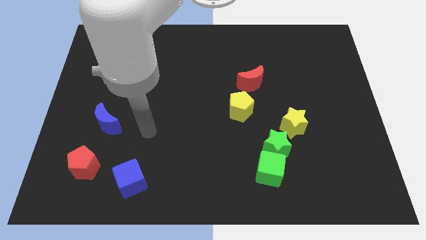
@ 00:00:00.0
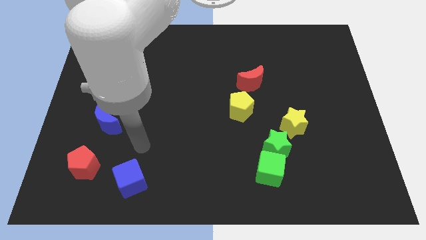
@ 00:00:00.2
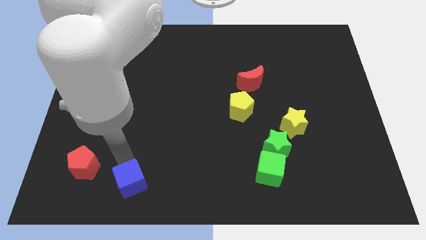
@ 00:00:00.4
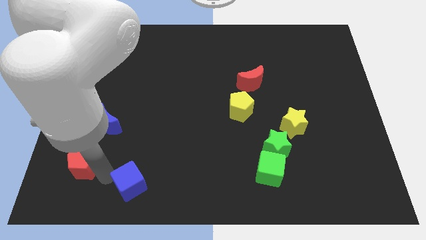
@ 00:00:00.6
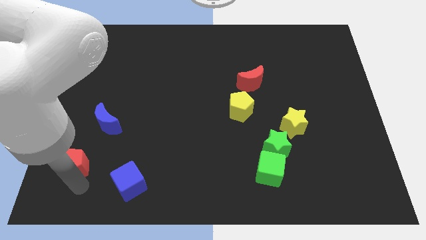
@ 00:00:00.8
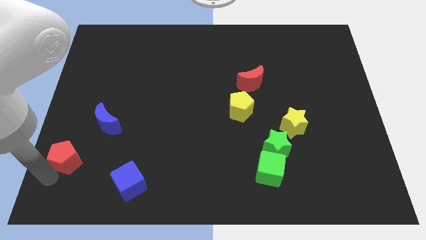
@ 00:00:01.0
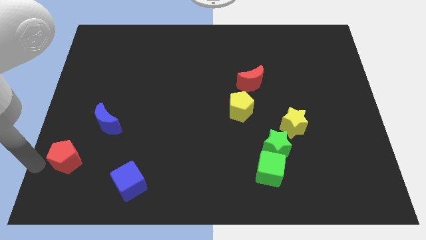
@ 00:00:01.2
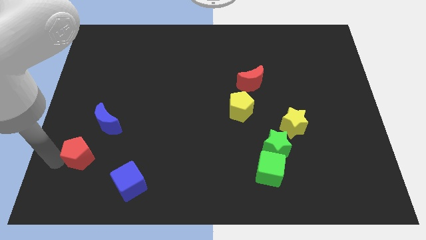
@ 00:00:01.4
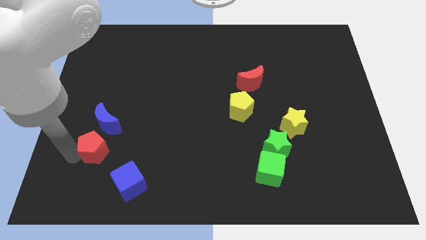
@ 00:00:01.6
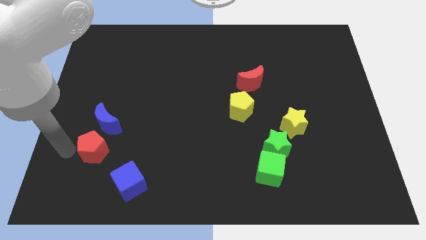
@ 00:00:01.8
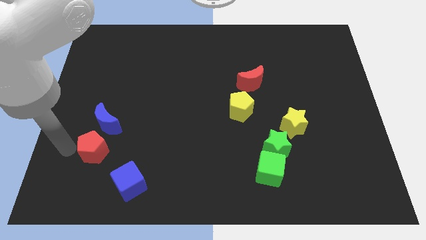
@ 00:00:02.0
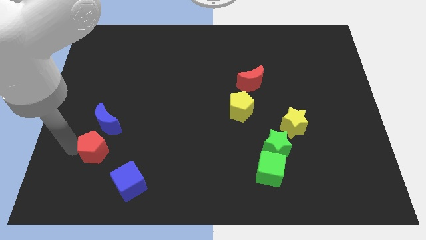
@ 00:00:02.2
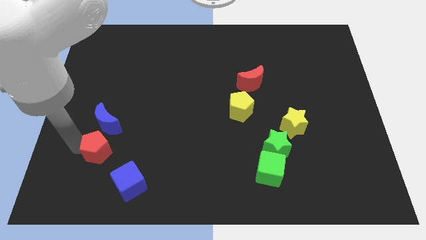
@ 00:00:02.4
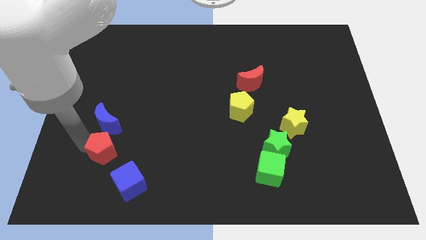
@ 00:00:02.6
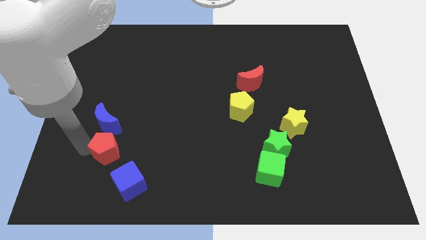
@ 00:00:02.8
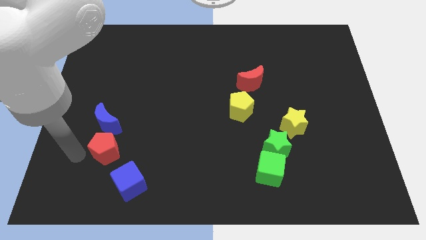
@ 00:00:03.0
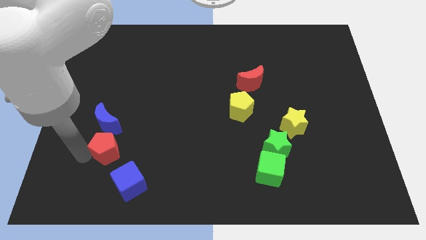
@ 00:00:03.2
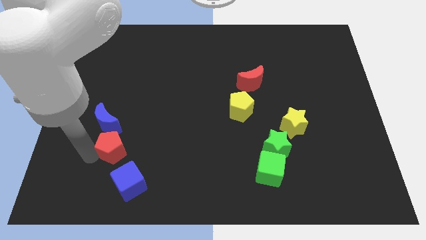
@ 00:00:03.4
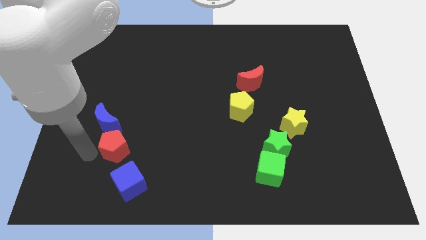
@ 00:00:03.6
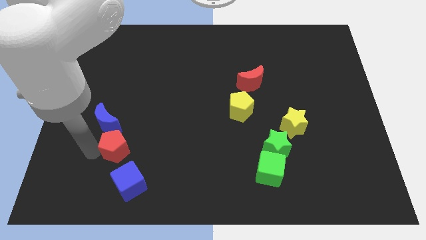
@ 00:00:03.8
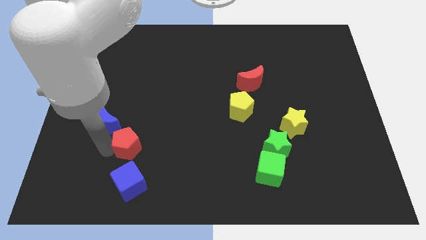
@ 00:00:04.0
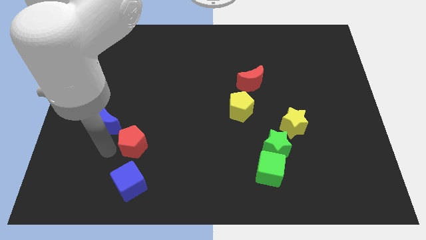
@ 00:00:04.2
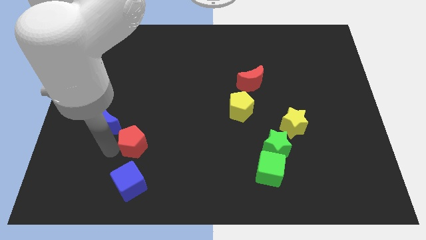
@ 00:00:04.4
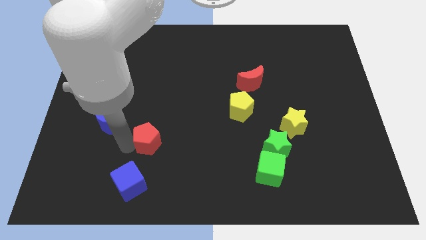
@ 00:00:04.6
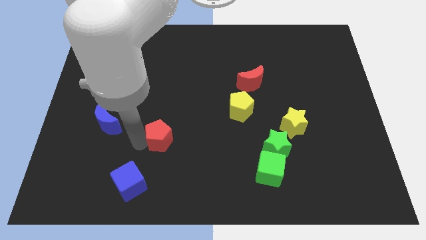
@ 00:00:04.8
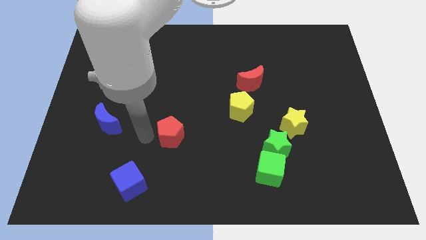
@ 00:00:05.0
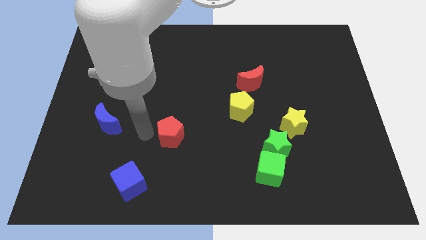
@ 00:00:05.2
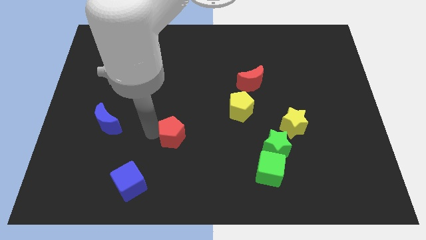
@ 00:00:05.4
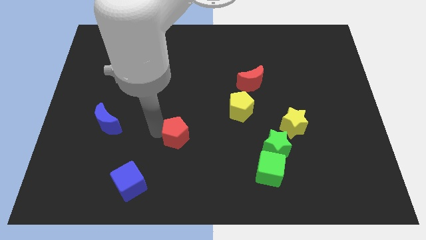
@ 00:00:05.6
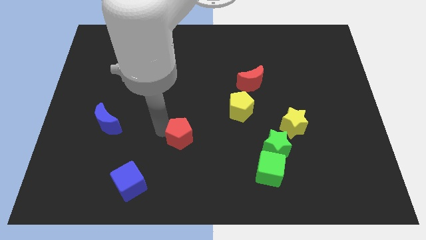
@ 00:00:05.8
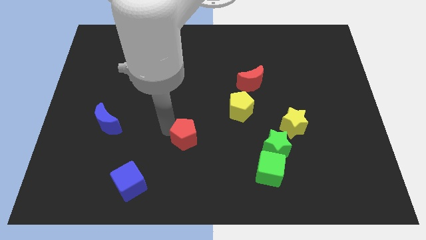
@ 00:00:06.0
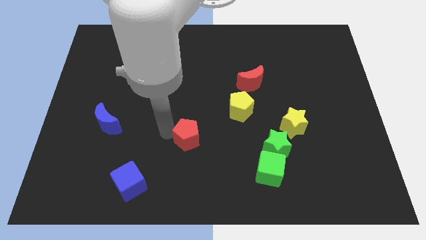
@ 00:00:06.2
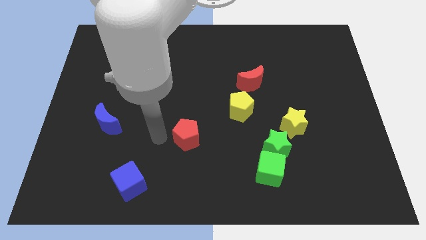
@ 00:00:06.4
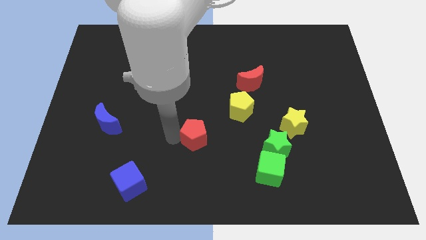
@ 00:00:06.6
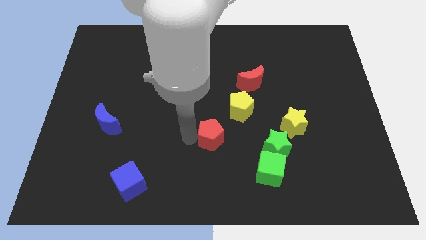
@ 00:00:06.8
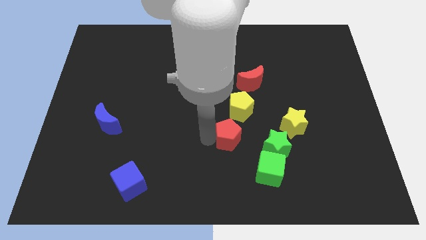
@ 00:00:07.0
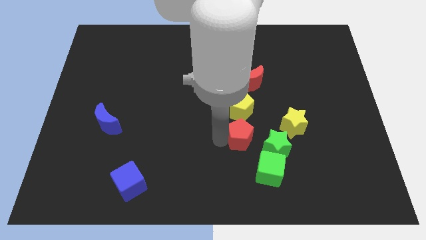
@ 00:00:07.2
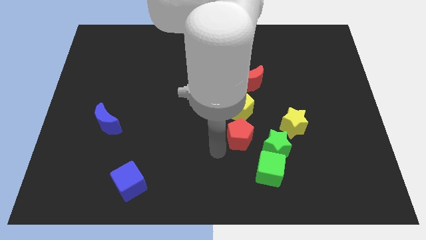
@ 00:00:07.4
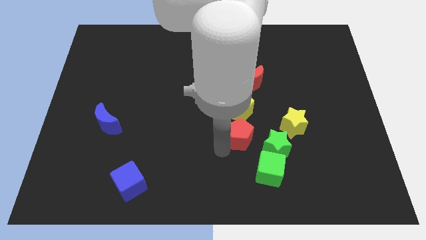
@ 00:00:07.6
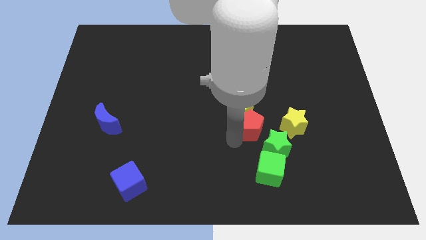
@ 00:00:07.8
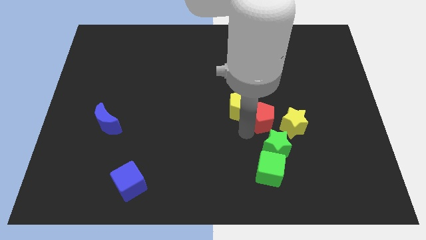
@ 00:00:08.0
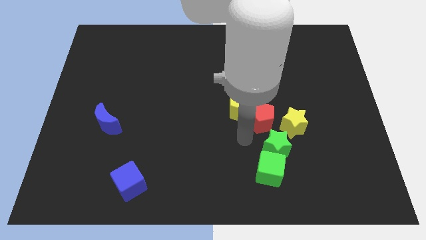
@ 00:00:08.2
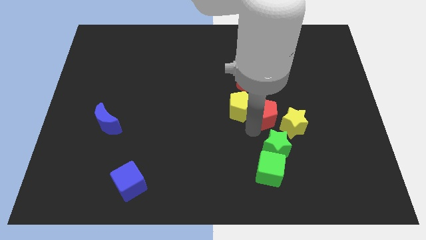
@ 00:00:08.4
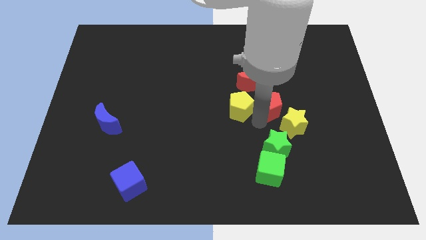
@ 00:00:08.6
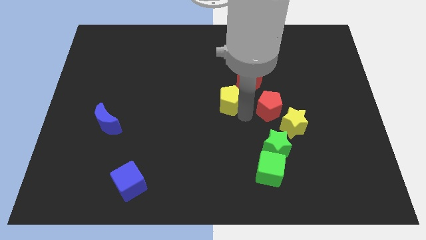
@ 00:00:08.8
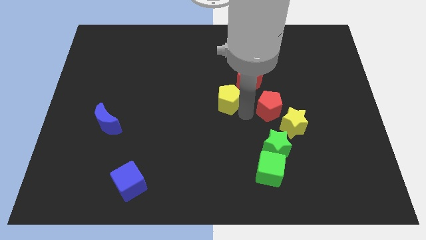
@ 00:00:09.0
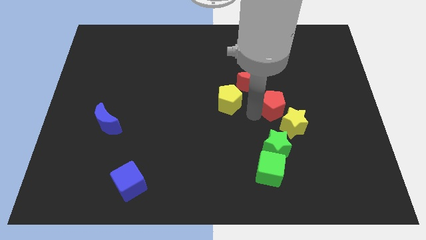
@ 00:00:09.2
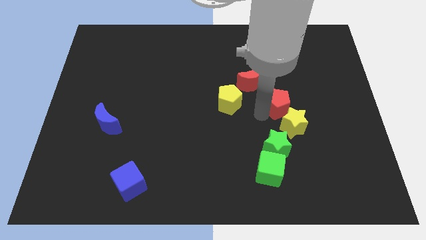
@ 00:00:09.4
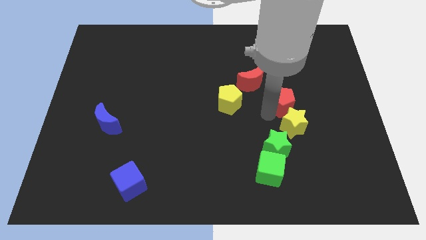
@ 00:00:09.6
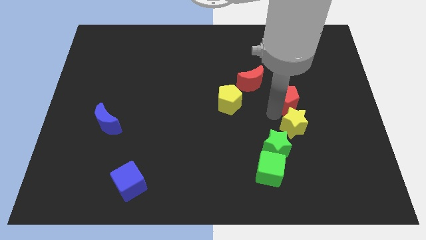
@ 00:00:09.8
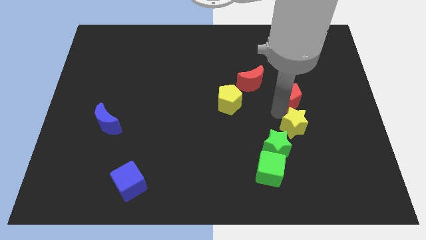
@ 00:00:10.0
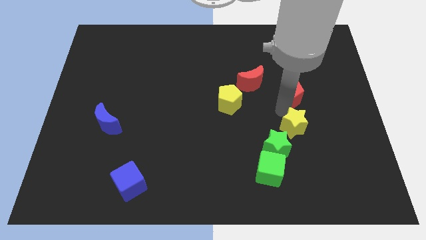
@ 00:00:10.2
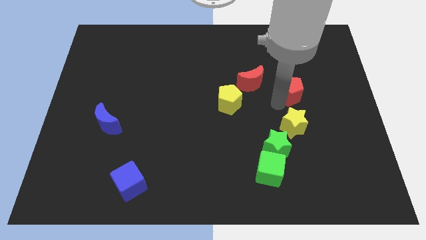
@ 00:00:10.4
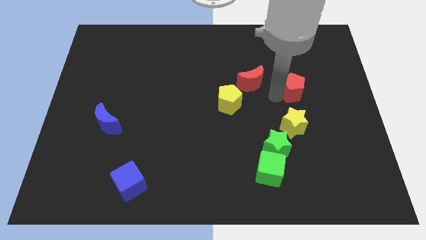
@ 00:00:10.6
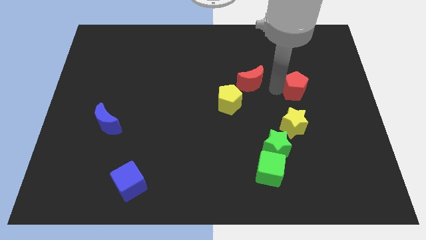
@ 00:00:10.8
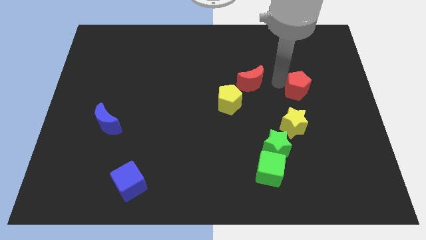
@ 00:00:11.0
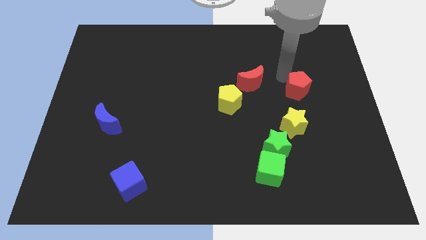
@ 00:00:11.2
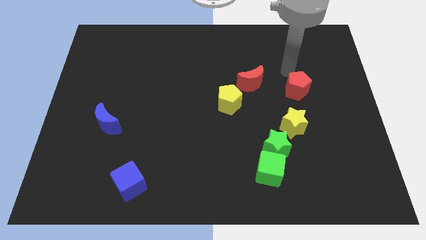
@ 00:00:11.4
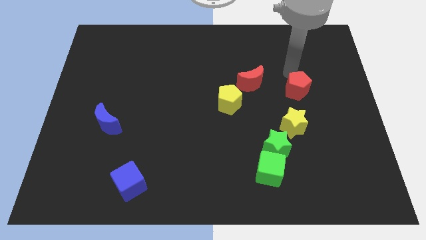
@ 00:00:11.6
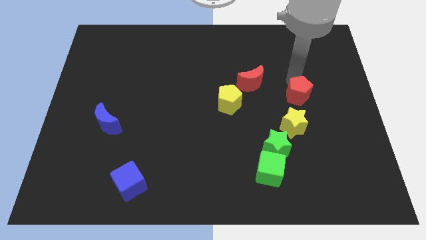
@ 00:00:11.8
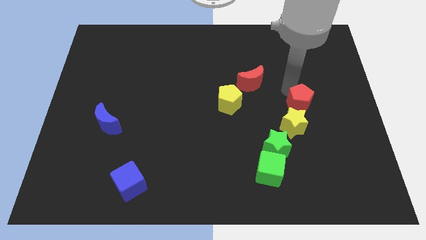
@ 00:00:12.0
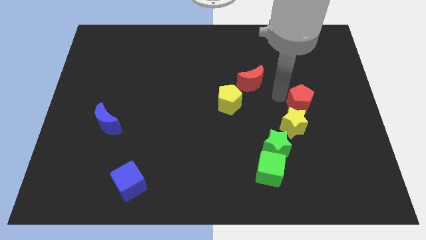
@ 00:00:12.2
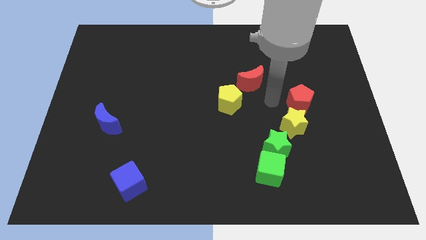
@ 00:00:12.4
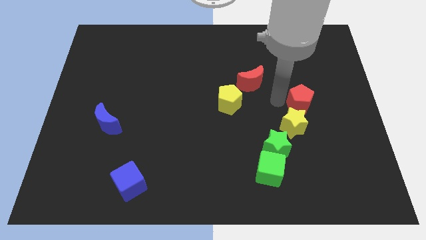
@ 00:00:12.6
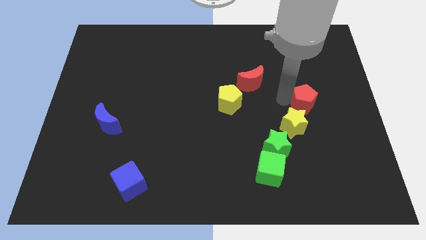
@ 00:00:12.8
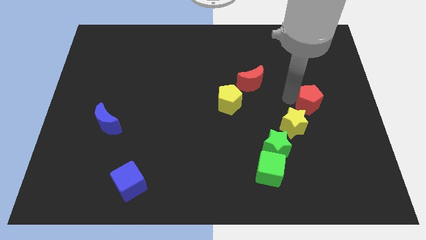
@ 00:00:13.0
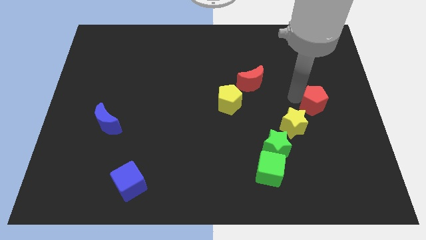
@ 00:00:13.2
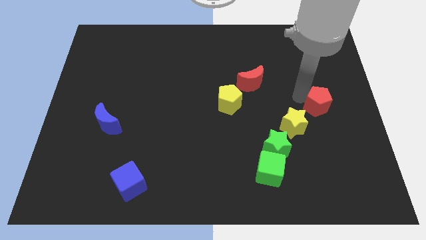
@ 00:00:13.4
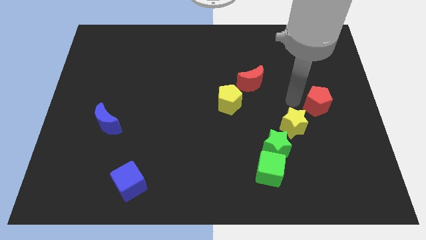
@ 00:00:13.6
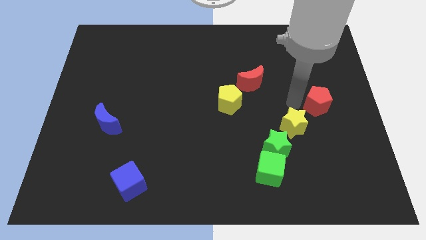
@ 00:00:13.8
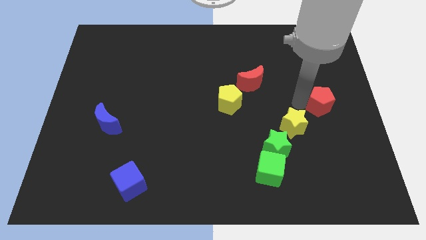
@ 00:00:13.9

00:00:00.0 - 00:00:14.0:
slide the red pentagon to the right side
